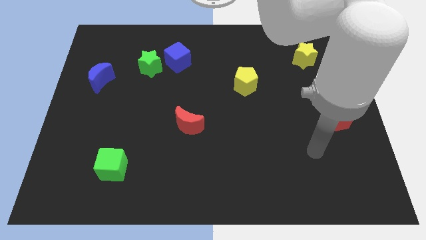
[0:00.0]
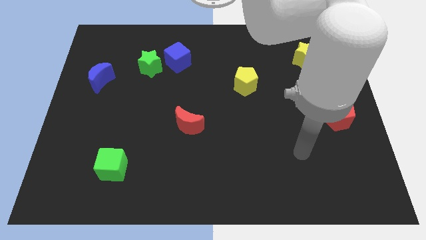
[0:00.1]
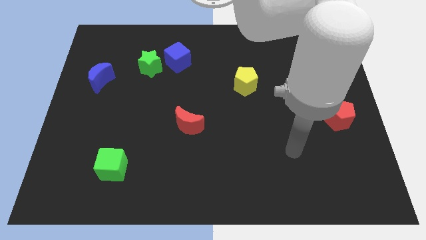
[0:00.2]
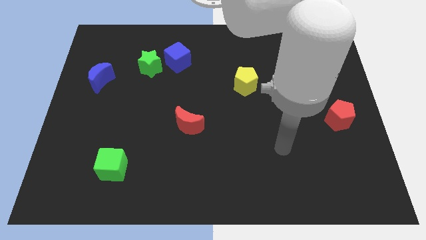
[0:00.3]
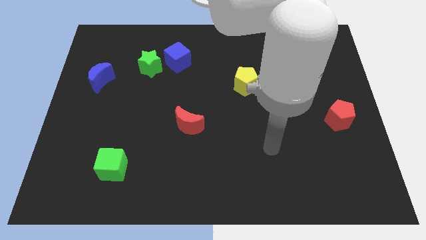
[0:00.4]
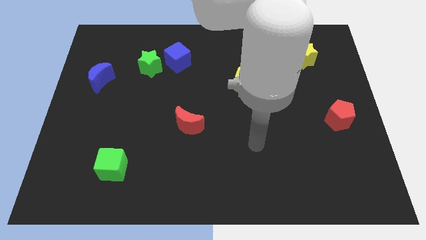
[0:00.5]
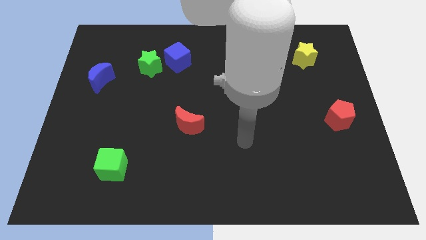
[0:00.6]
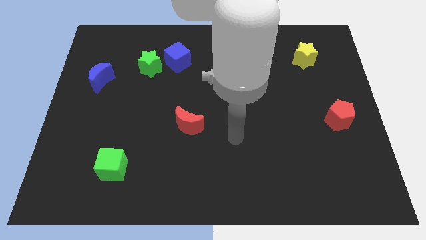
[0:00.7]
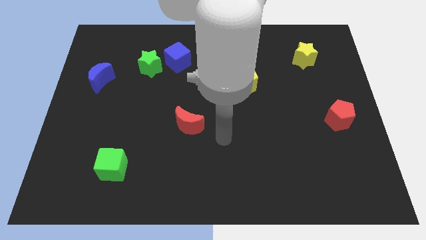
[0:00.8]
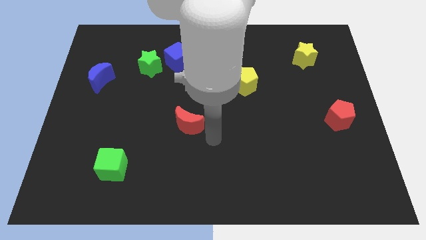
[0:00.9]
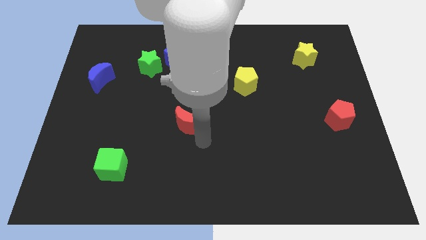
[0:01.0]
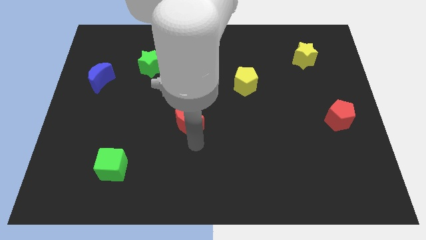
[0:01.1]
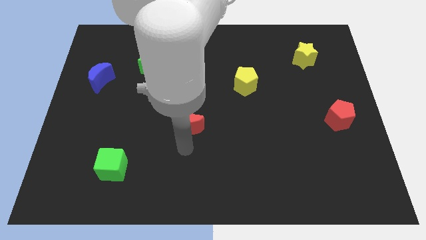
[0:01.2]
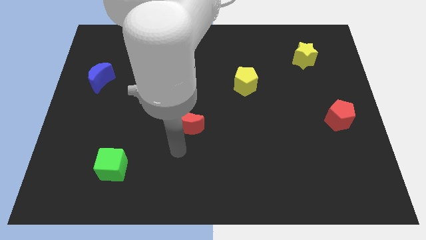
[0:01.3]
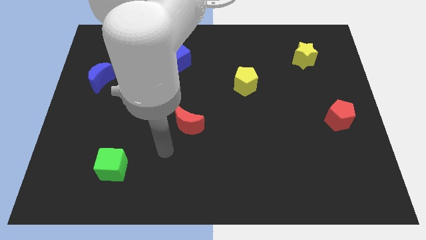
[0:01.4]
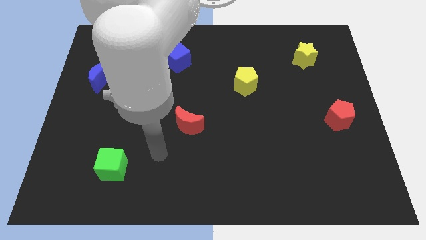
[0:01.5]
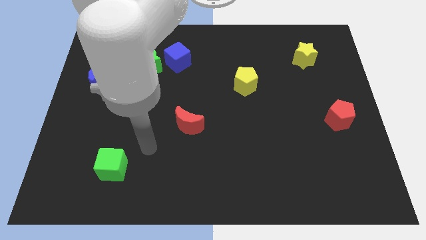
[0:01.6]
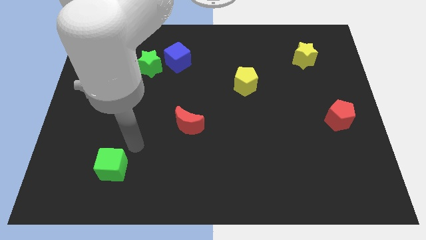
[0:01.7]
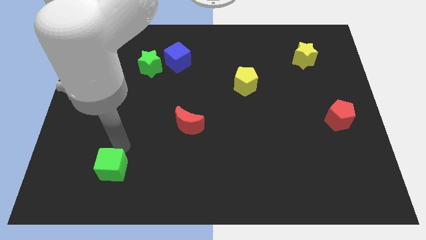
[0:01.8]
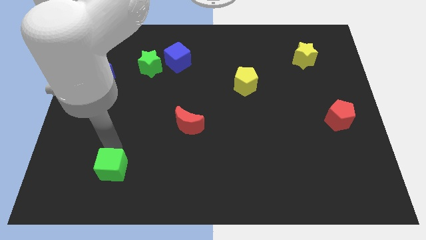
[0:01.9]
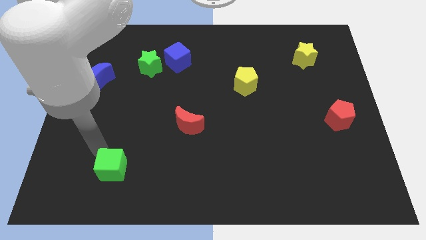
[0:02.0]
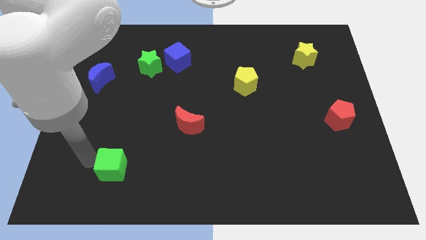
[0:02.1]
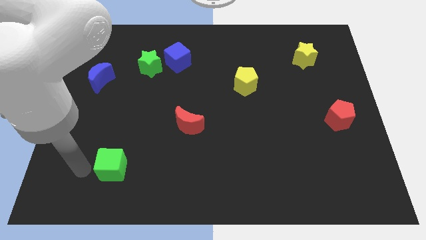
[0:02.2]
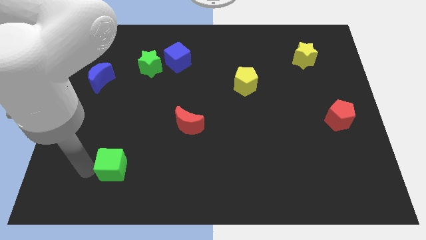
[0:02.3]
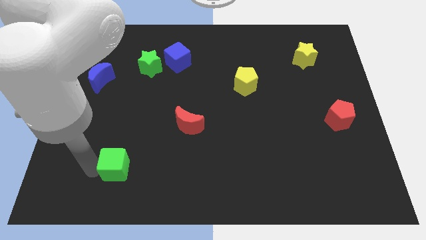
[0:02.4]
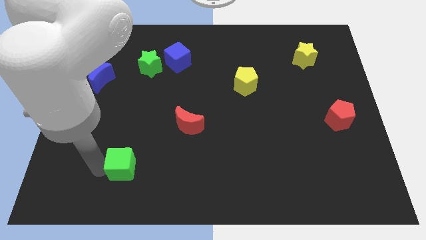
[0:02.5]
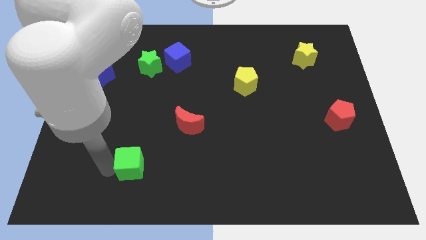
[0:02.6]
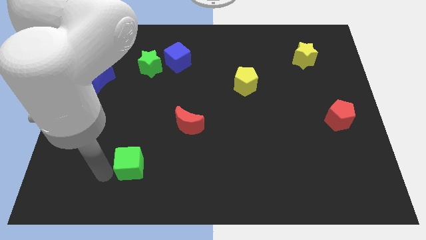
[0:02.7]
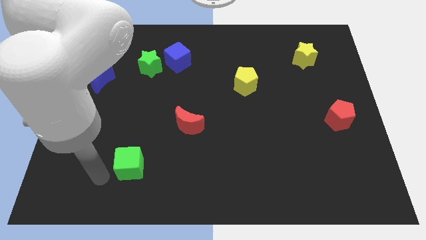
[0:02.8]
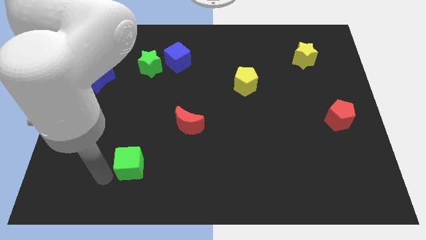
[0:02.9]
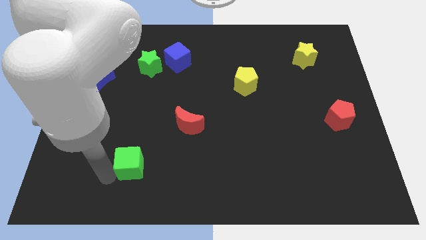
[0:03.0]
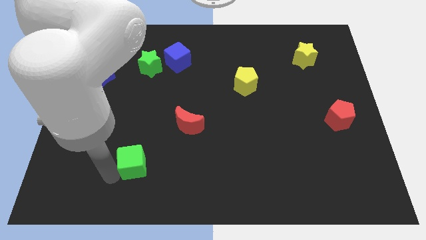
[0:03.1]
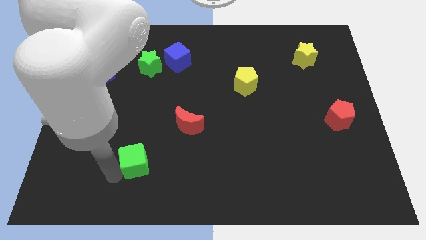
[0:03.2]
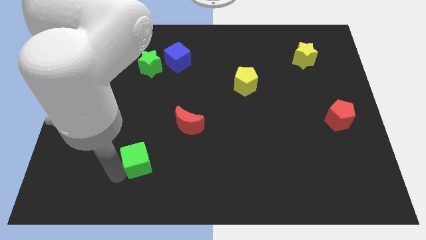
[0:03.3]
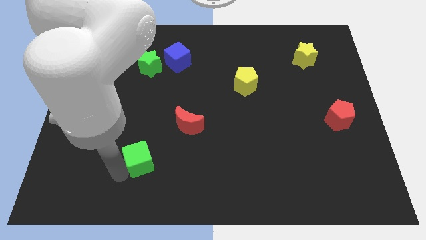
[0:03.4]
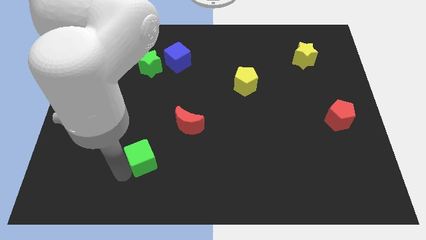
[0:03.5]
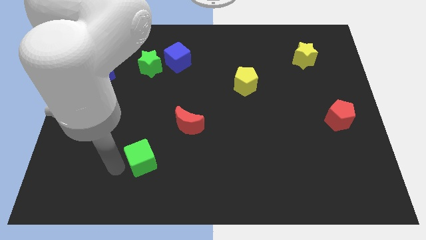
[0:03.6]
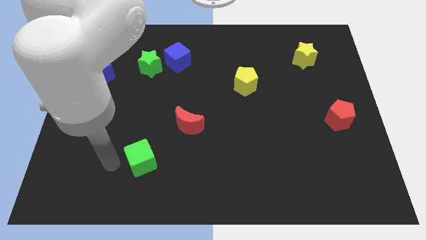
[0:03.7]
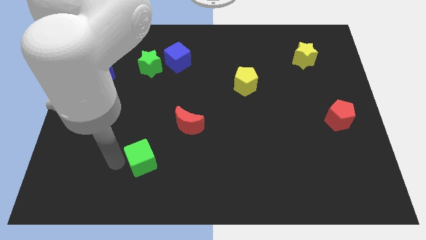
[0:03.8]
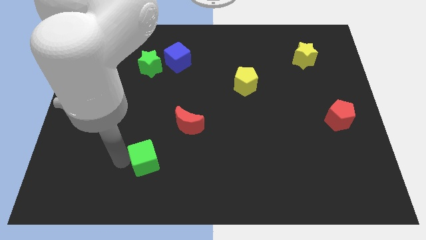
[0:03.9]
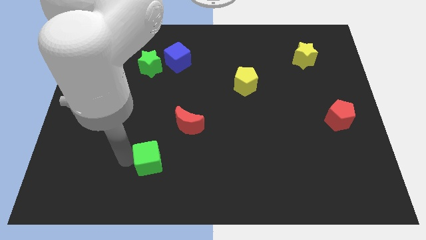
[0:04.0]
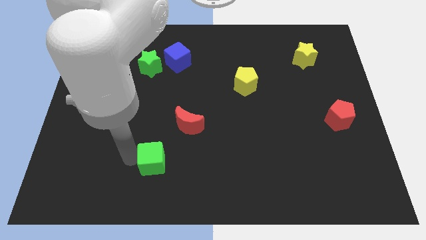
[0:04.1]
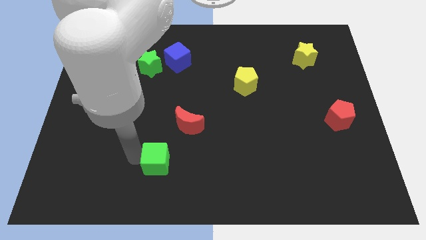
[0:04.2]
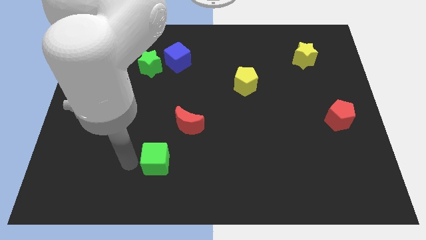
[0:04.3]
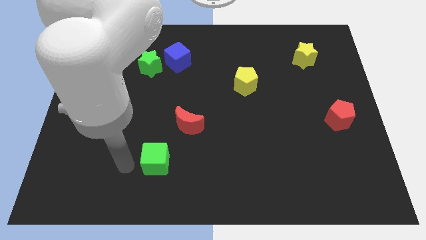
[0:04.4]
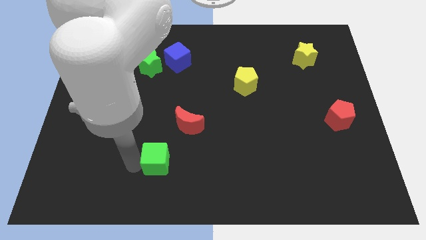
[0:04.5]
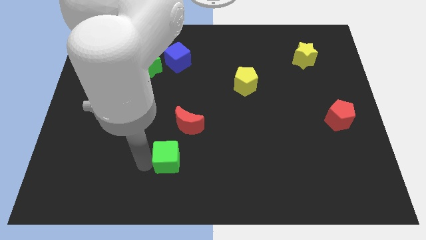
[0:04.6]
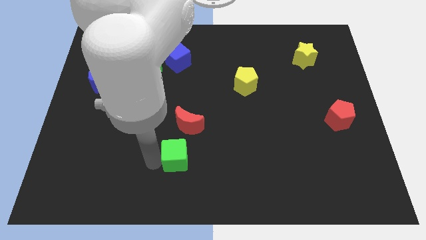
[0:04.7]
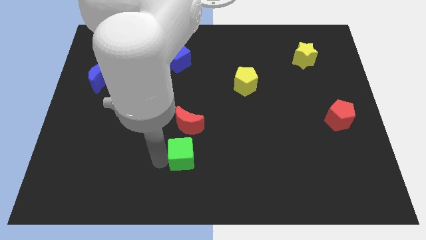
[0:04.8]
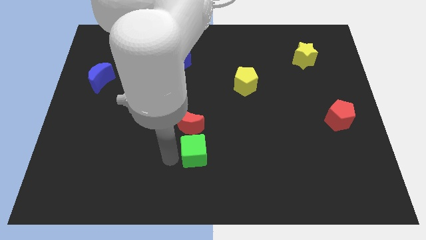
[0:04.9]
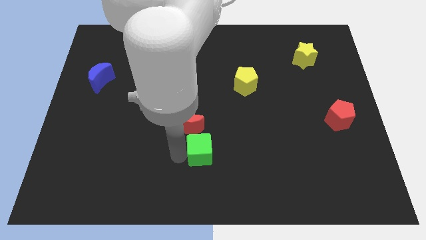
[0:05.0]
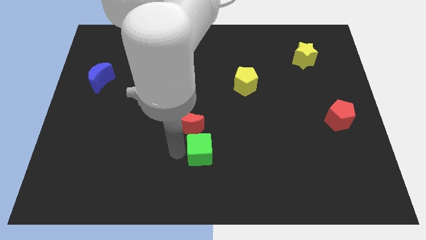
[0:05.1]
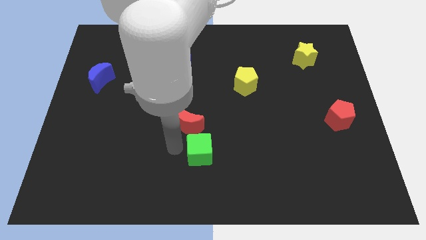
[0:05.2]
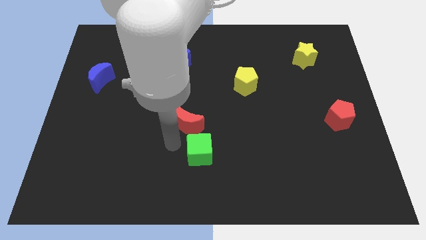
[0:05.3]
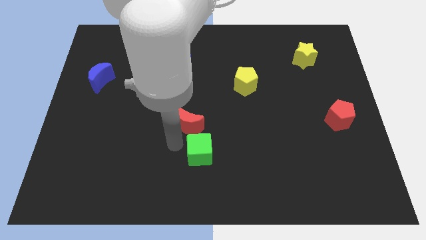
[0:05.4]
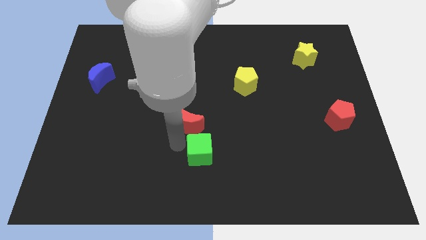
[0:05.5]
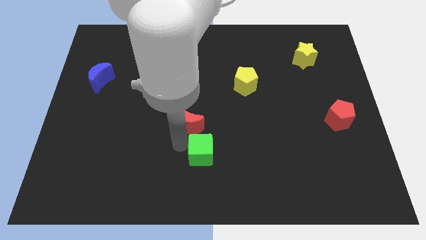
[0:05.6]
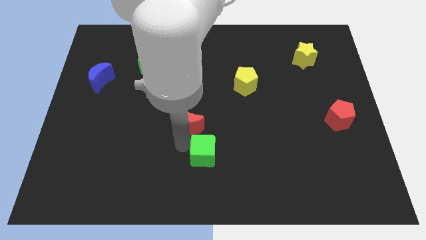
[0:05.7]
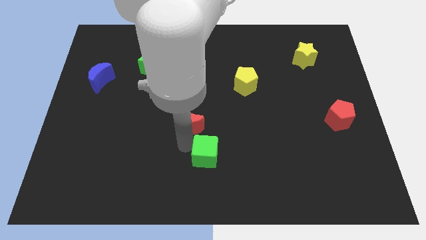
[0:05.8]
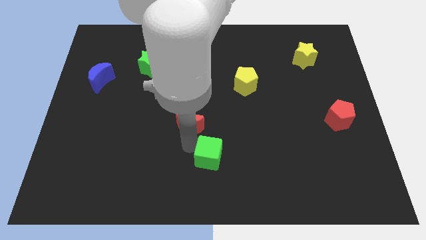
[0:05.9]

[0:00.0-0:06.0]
slide the green cube to the right

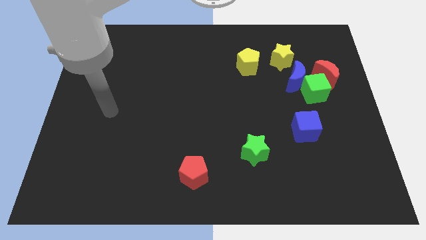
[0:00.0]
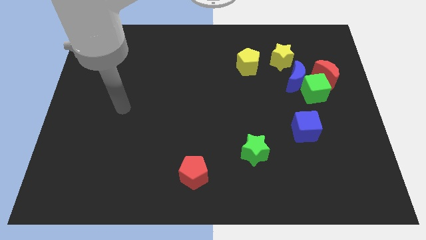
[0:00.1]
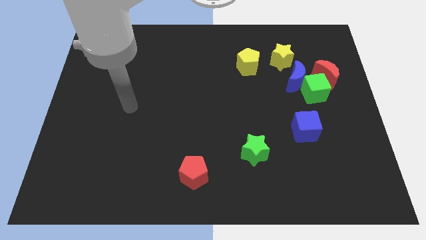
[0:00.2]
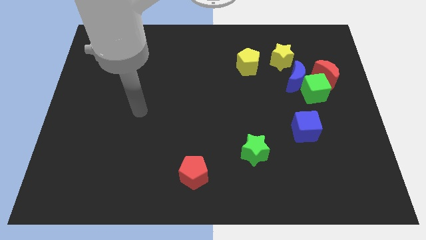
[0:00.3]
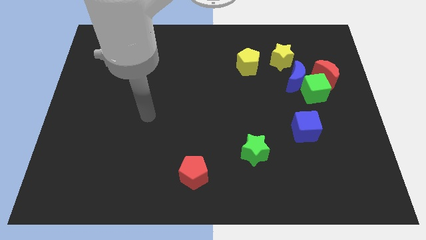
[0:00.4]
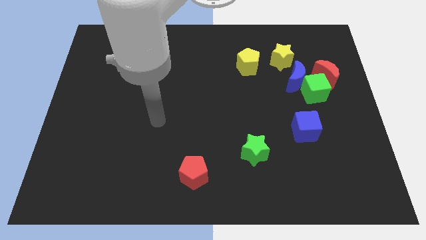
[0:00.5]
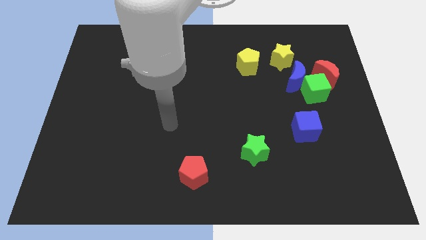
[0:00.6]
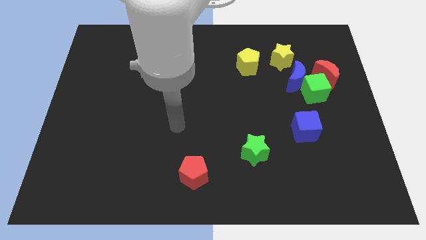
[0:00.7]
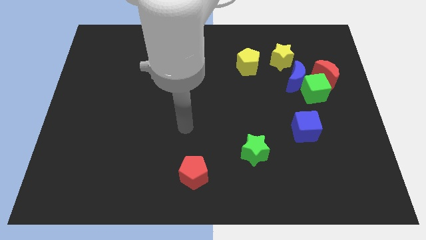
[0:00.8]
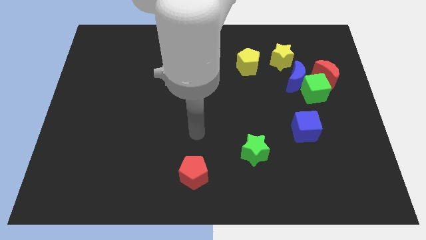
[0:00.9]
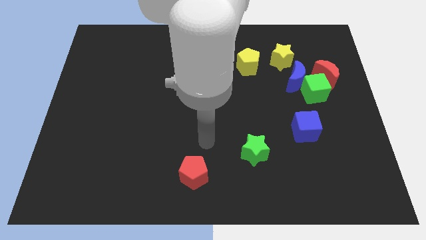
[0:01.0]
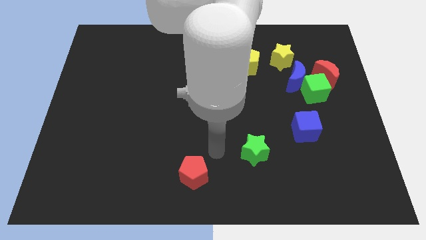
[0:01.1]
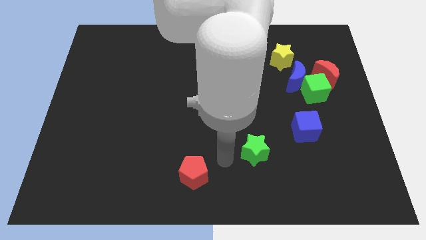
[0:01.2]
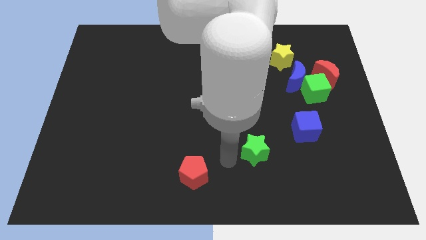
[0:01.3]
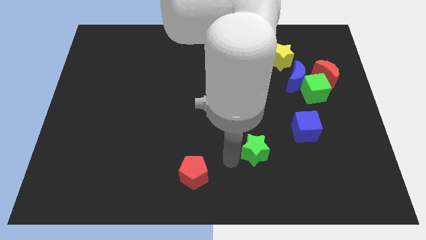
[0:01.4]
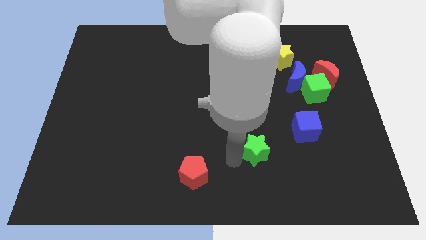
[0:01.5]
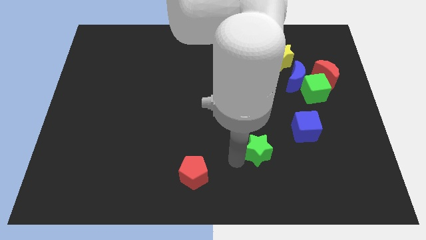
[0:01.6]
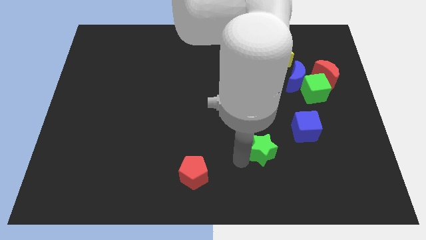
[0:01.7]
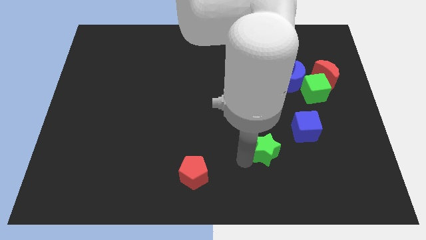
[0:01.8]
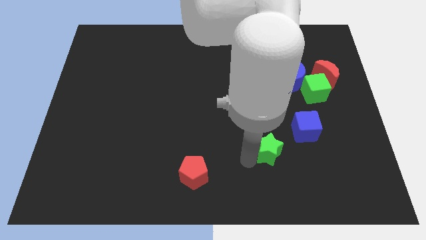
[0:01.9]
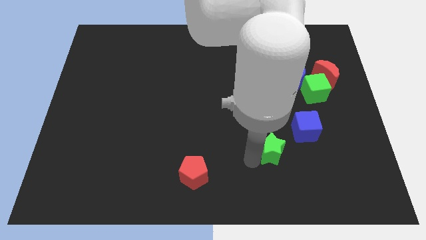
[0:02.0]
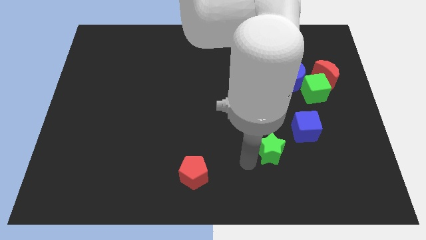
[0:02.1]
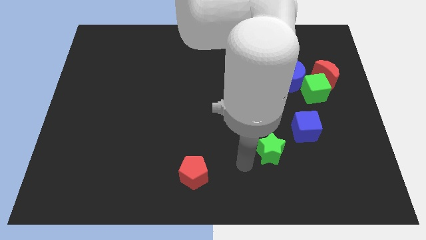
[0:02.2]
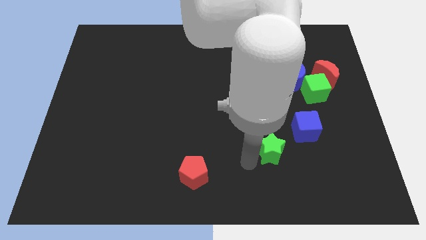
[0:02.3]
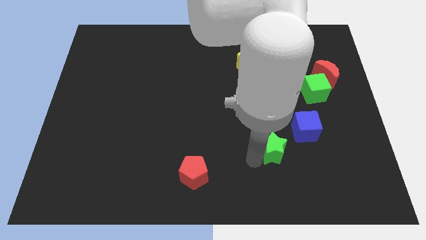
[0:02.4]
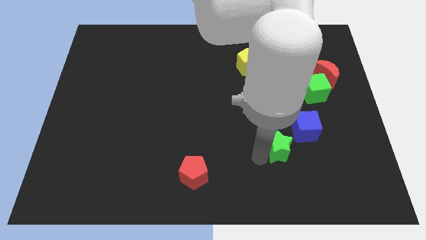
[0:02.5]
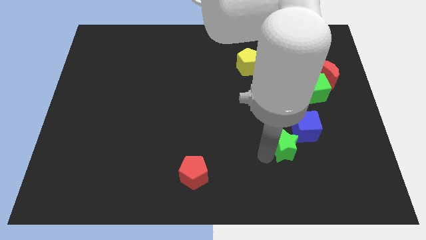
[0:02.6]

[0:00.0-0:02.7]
slightly slide the green star right
